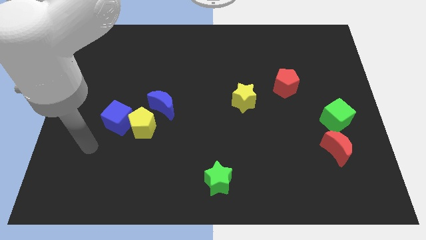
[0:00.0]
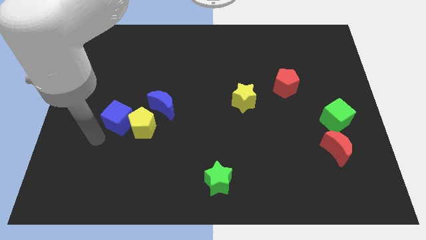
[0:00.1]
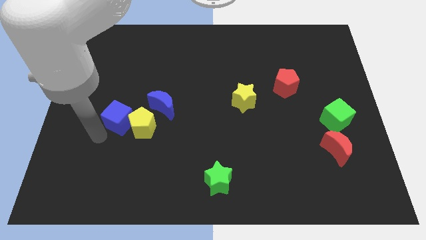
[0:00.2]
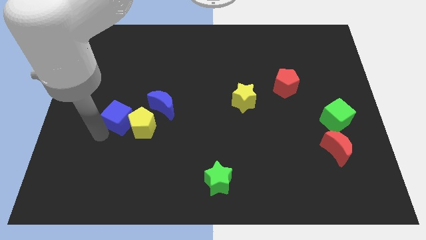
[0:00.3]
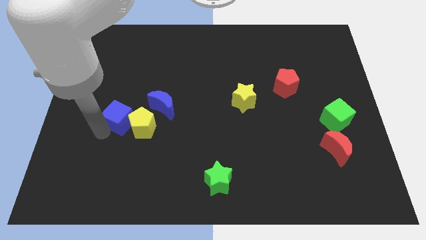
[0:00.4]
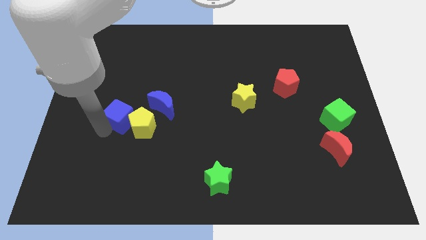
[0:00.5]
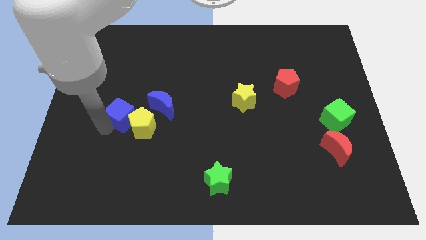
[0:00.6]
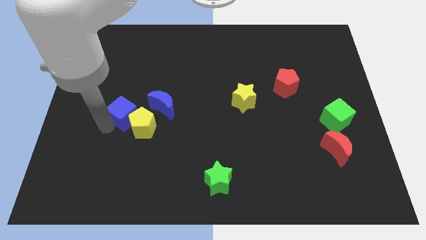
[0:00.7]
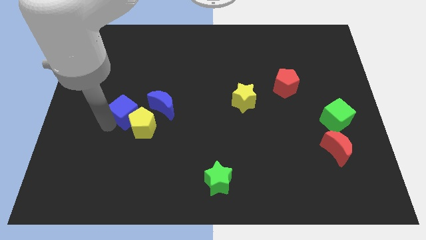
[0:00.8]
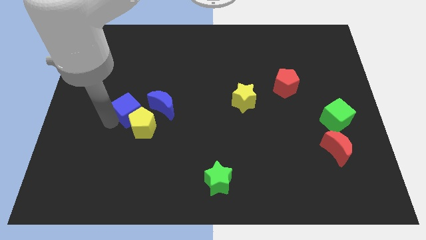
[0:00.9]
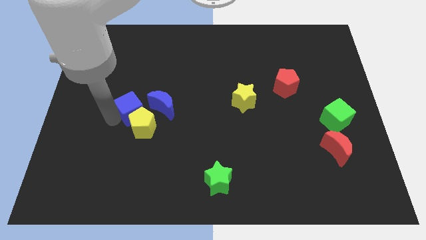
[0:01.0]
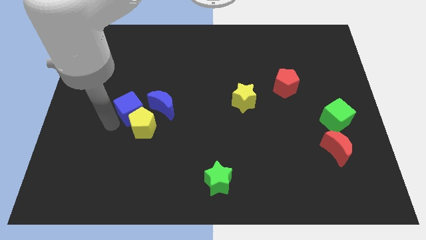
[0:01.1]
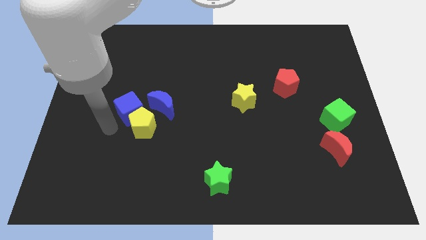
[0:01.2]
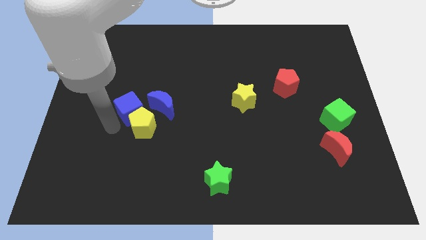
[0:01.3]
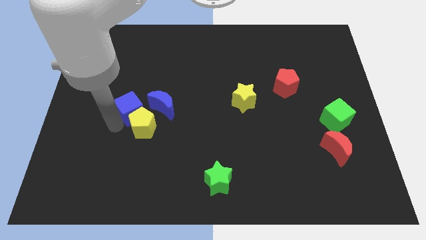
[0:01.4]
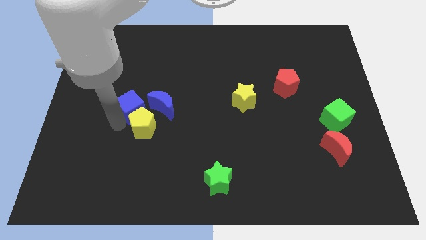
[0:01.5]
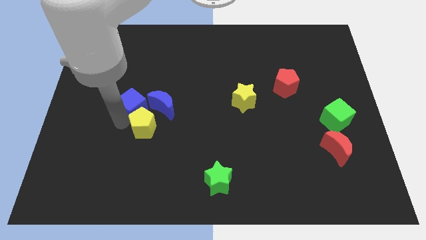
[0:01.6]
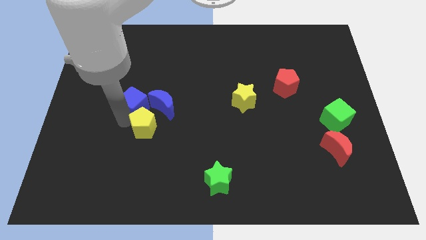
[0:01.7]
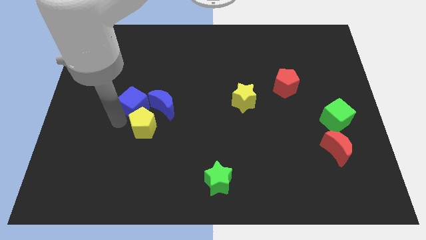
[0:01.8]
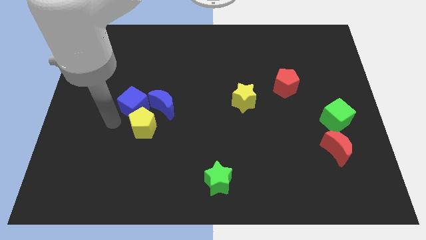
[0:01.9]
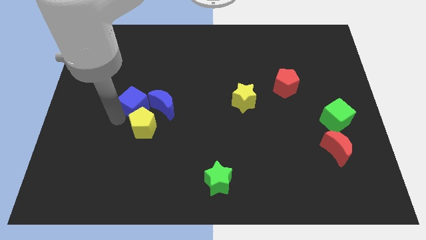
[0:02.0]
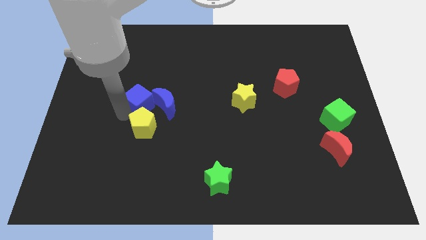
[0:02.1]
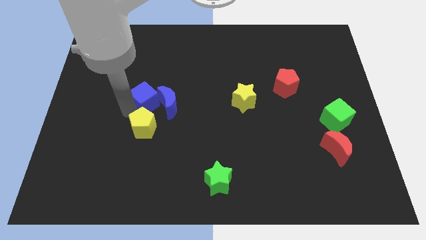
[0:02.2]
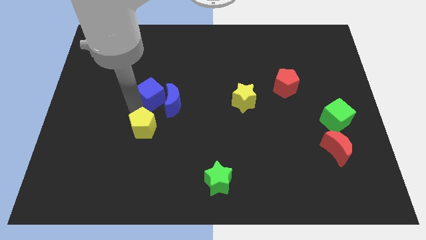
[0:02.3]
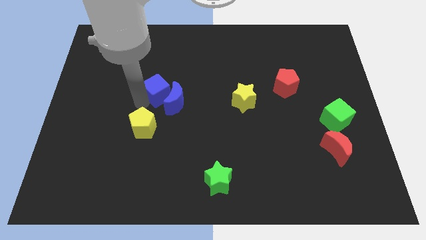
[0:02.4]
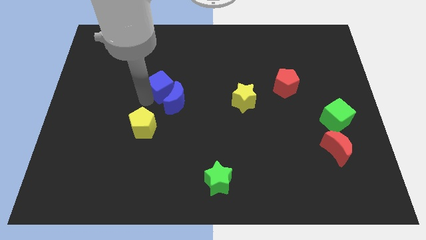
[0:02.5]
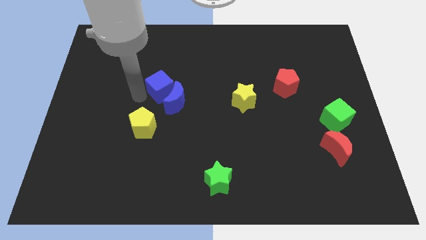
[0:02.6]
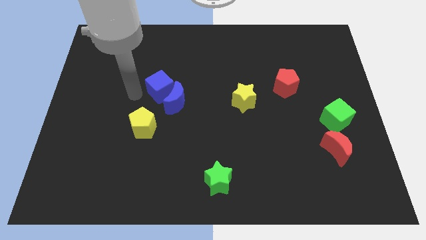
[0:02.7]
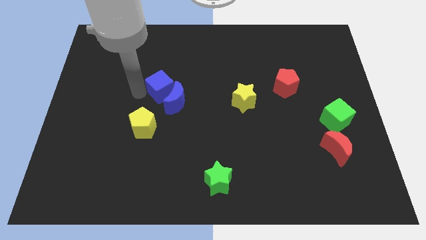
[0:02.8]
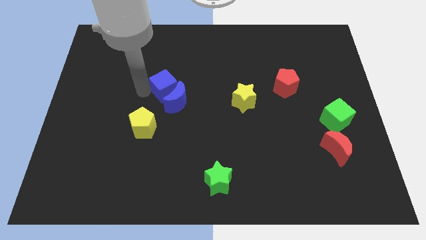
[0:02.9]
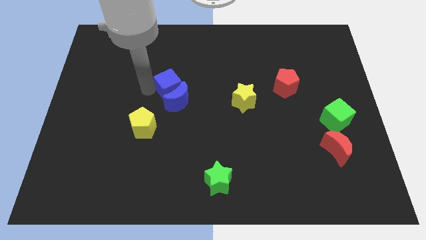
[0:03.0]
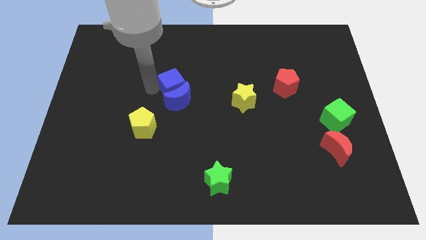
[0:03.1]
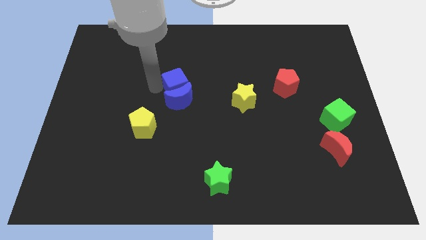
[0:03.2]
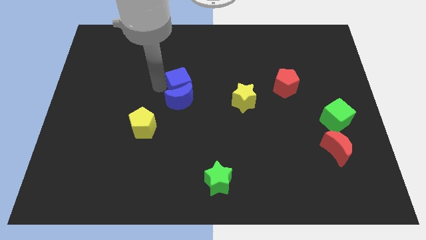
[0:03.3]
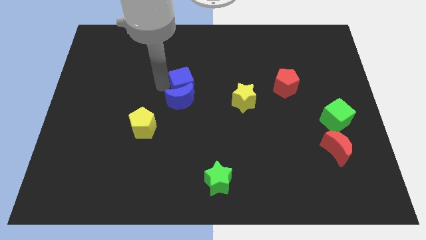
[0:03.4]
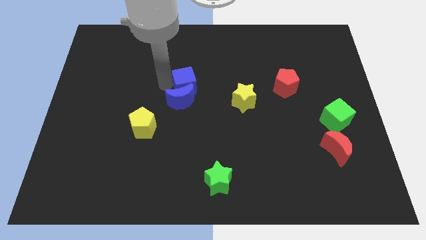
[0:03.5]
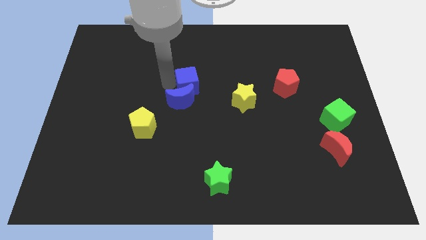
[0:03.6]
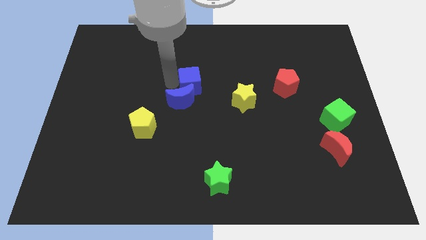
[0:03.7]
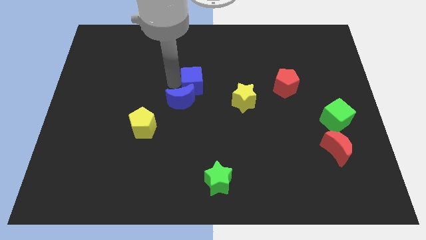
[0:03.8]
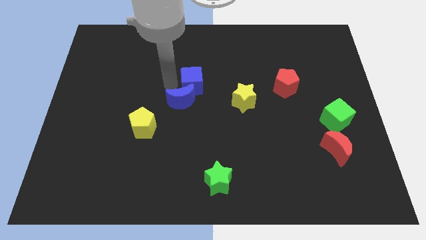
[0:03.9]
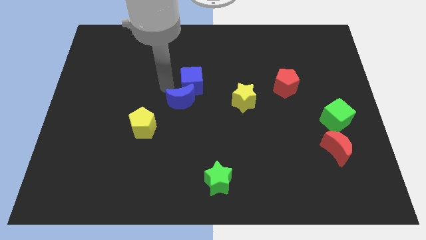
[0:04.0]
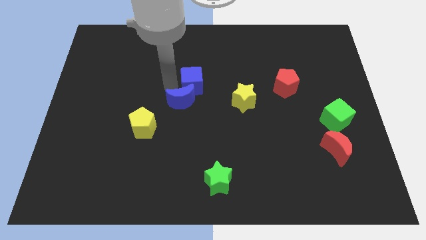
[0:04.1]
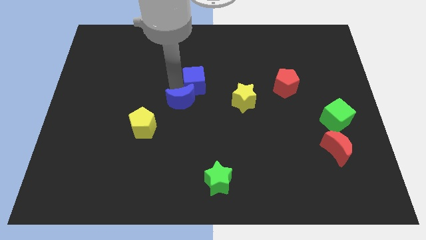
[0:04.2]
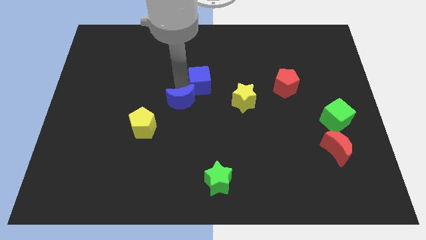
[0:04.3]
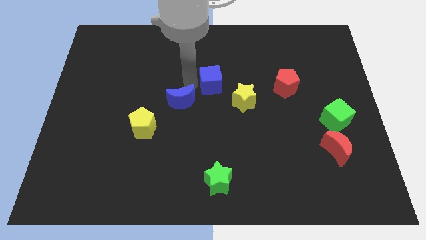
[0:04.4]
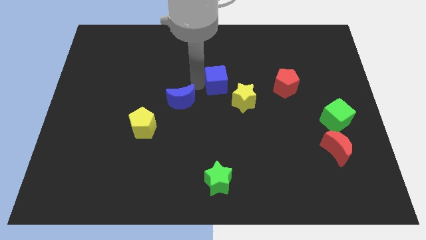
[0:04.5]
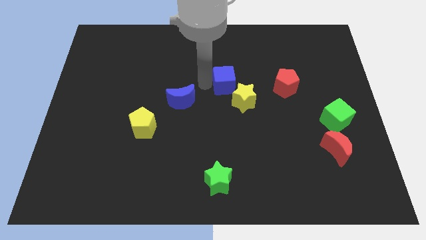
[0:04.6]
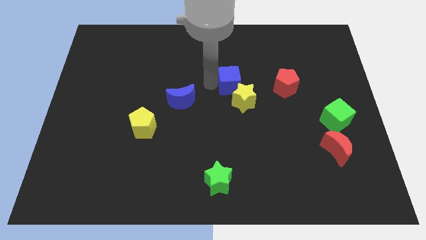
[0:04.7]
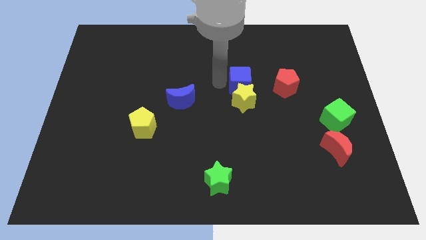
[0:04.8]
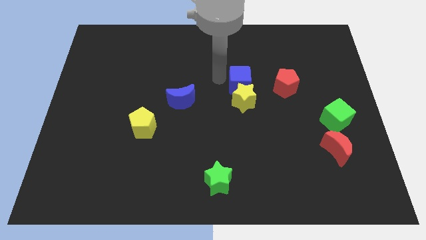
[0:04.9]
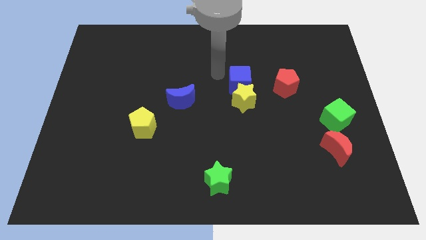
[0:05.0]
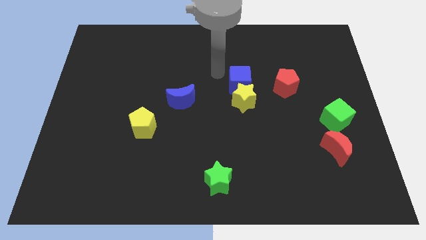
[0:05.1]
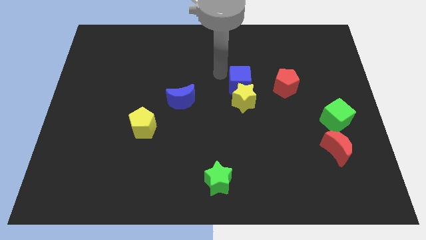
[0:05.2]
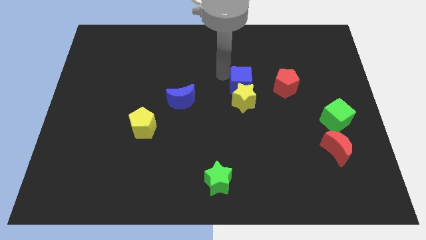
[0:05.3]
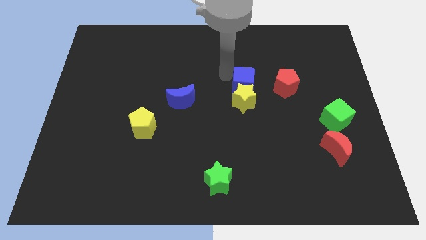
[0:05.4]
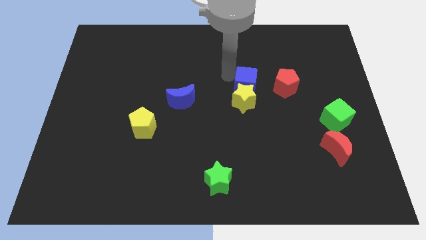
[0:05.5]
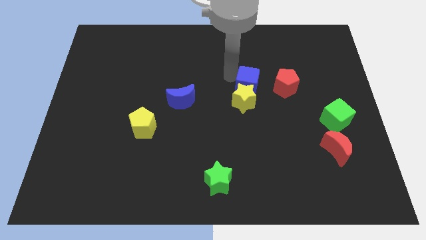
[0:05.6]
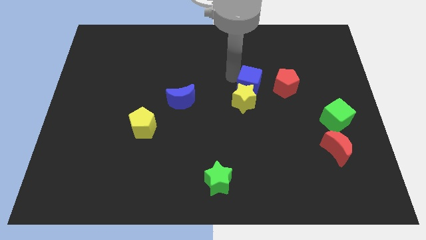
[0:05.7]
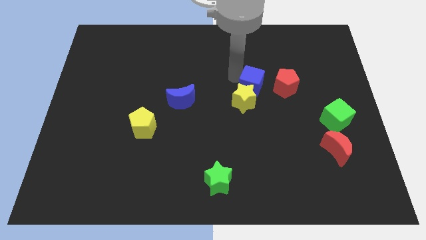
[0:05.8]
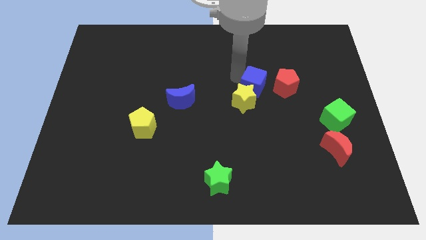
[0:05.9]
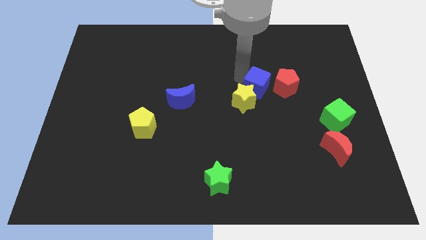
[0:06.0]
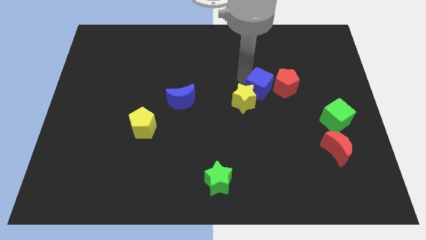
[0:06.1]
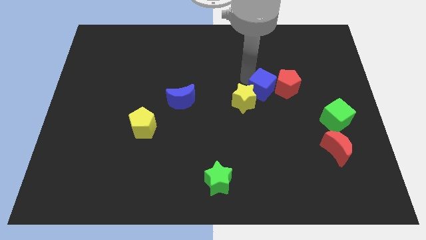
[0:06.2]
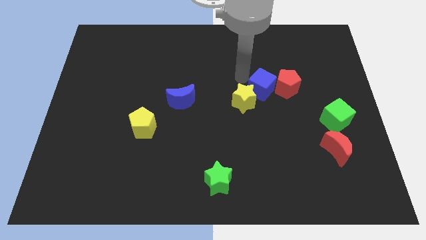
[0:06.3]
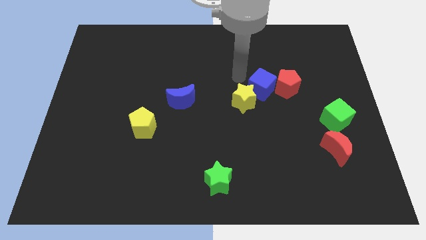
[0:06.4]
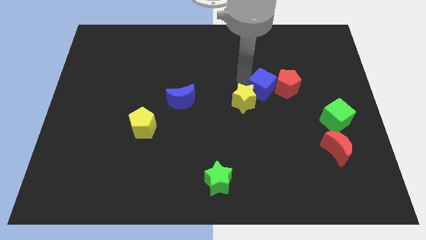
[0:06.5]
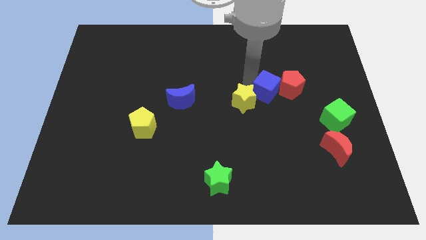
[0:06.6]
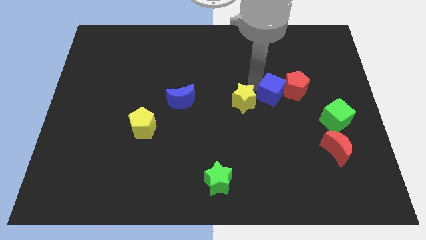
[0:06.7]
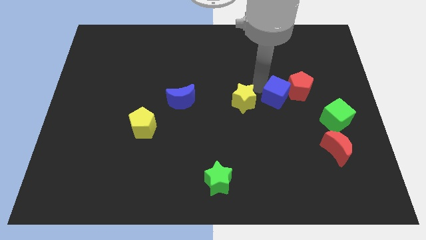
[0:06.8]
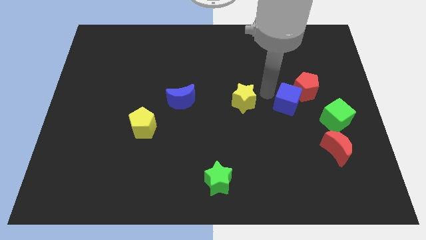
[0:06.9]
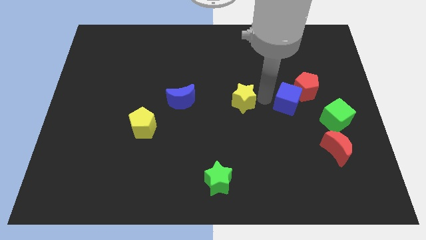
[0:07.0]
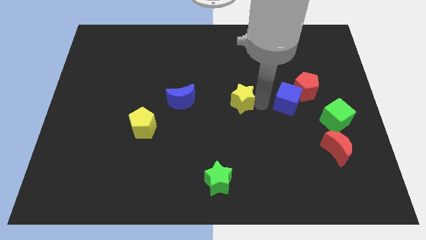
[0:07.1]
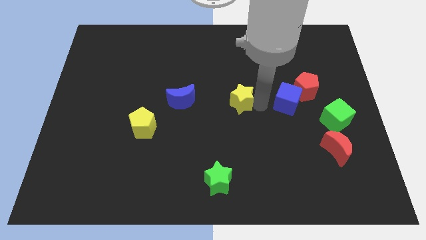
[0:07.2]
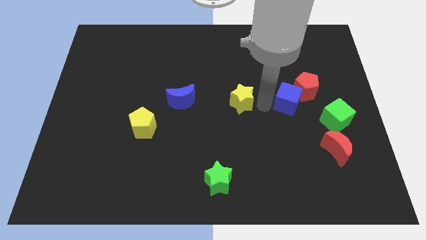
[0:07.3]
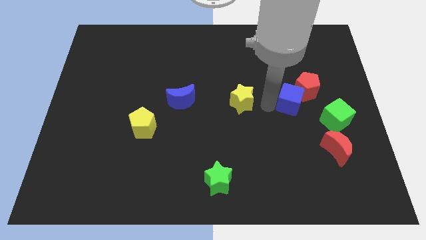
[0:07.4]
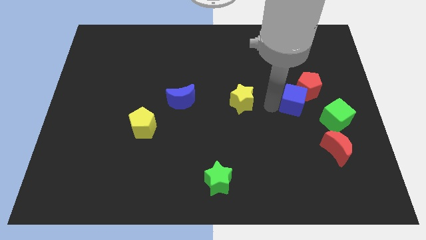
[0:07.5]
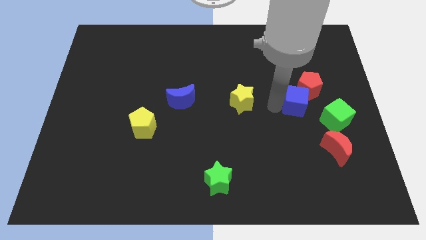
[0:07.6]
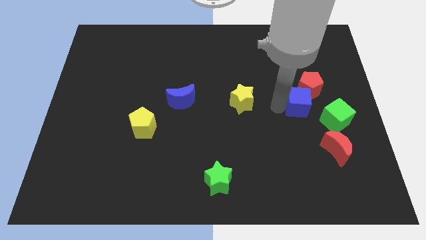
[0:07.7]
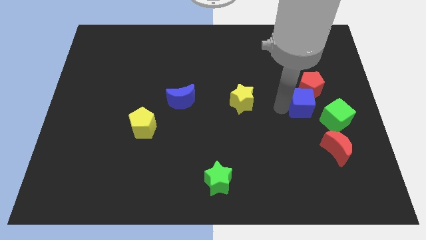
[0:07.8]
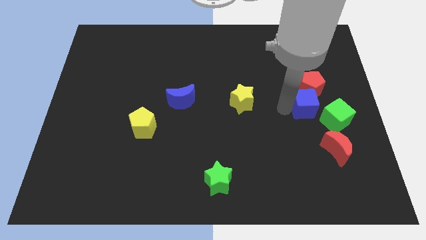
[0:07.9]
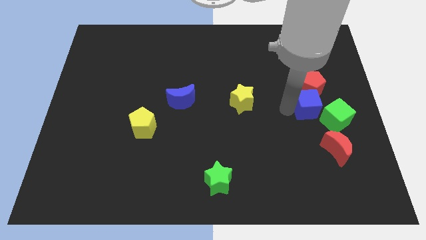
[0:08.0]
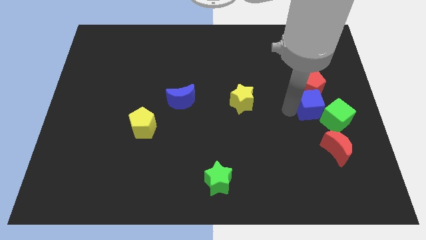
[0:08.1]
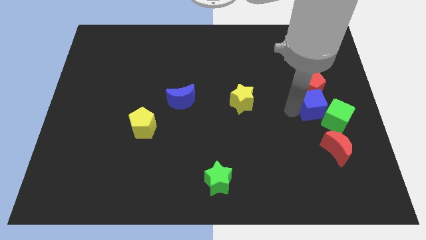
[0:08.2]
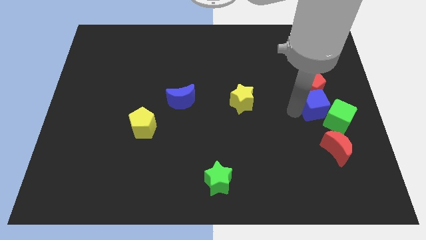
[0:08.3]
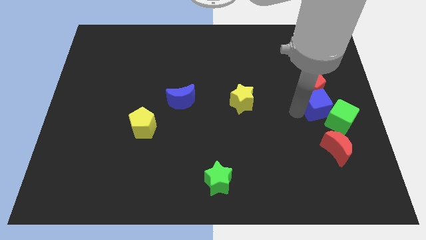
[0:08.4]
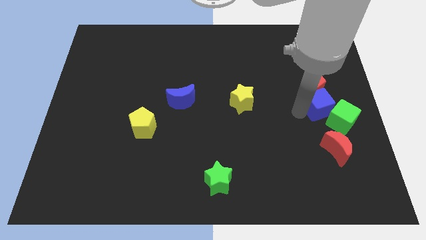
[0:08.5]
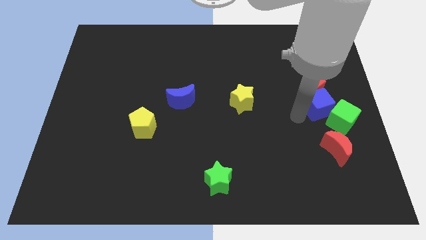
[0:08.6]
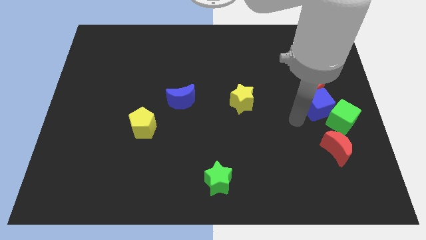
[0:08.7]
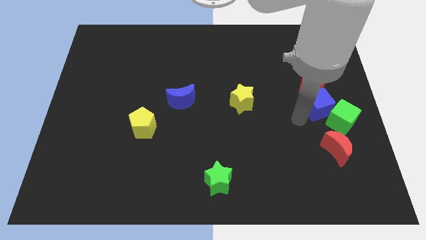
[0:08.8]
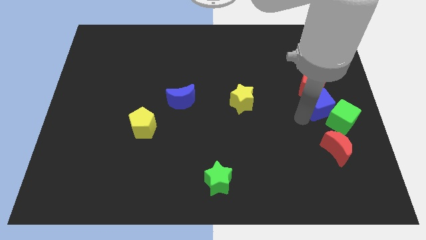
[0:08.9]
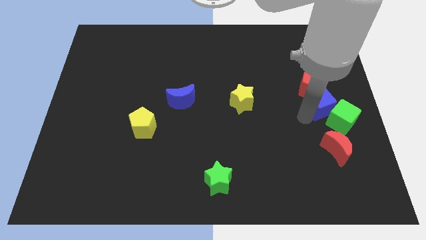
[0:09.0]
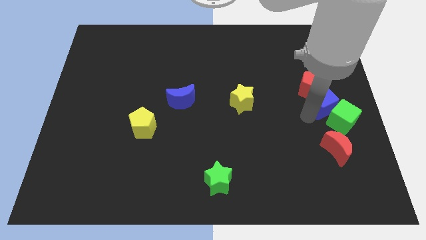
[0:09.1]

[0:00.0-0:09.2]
move the blue cube to the center right
